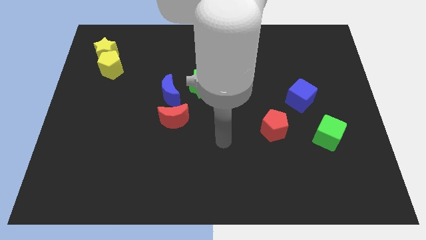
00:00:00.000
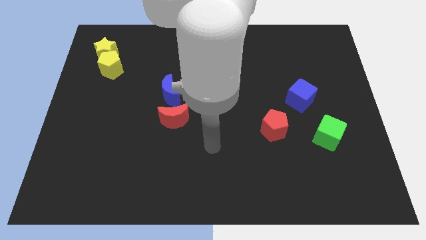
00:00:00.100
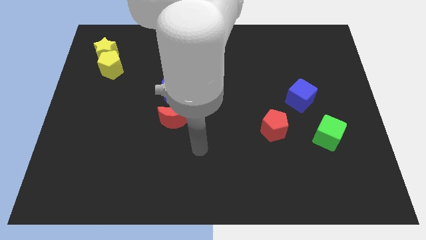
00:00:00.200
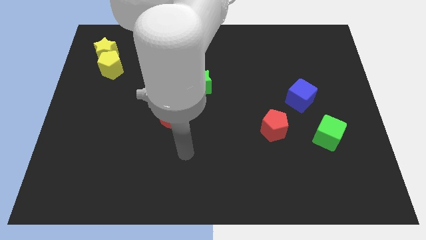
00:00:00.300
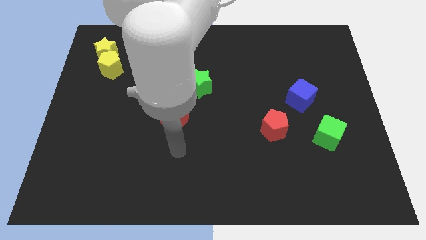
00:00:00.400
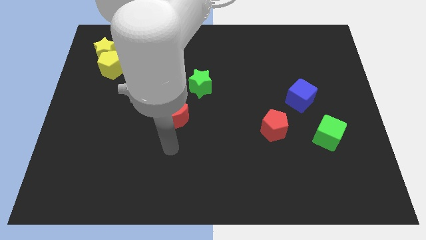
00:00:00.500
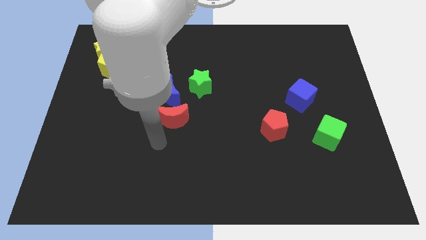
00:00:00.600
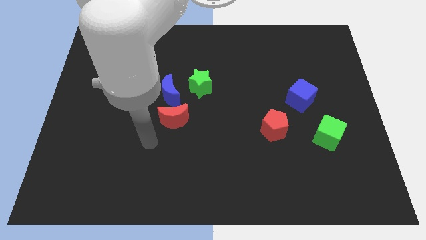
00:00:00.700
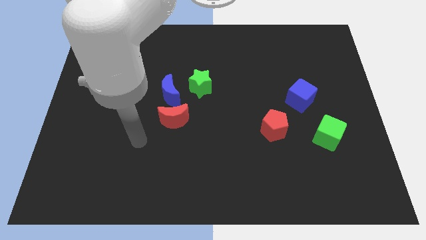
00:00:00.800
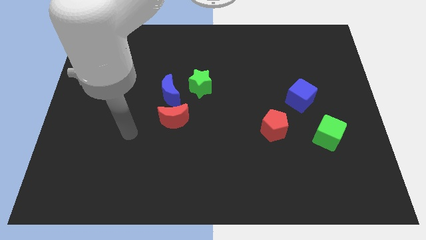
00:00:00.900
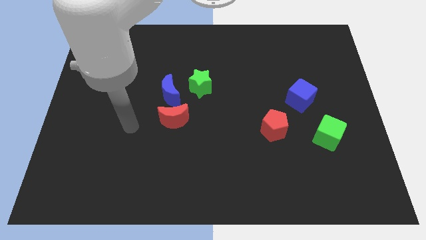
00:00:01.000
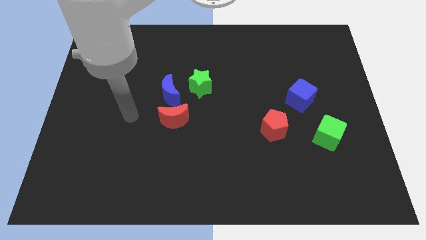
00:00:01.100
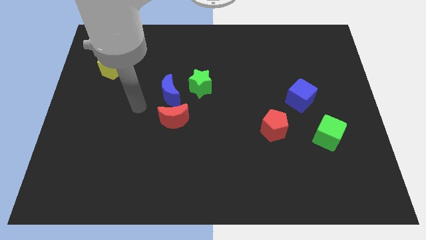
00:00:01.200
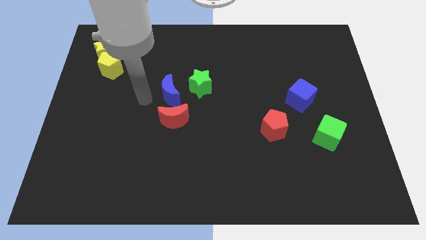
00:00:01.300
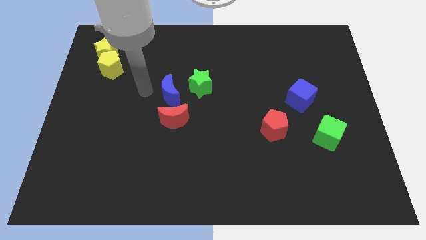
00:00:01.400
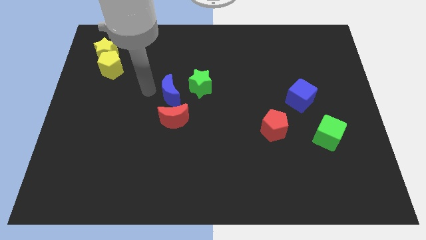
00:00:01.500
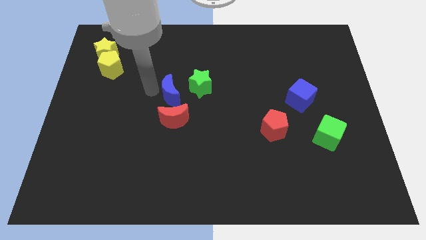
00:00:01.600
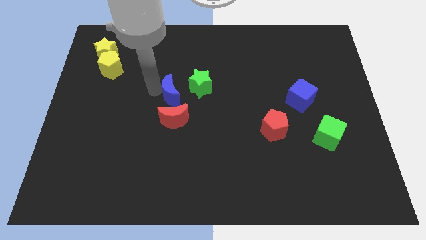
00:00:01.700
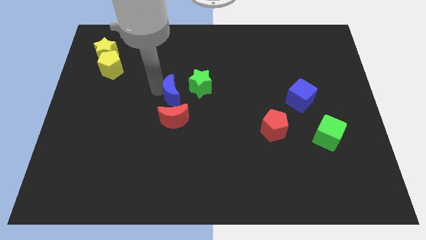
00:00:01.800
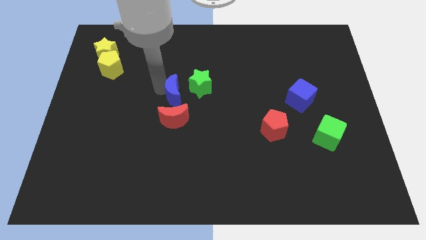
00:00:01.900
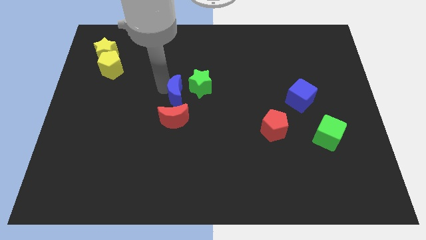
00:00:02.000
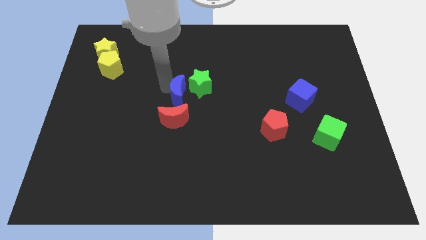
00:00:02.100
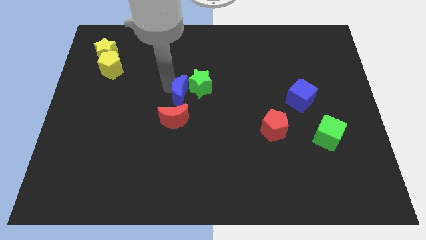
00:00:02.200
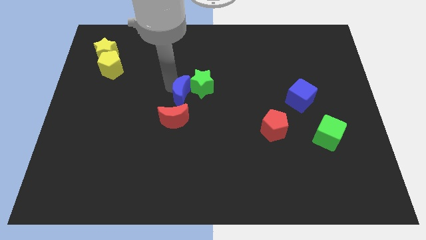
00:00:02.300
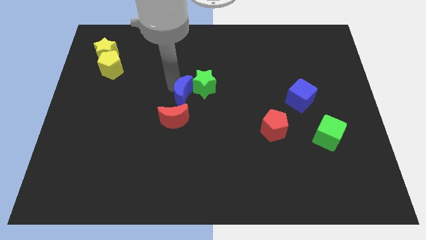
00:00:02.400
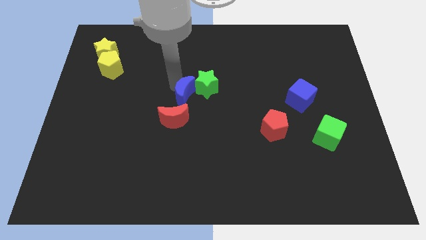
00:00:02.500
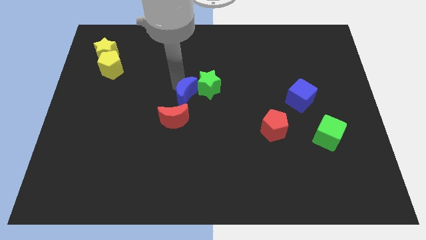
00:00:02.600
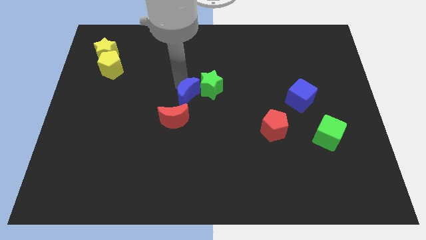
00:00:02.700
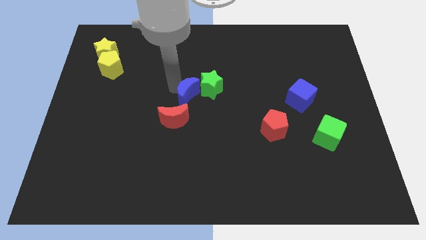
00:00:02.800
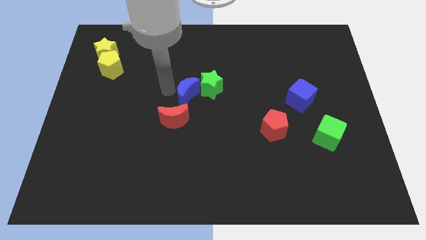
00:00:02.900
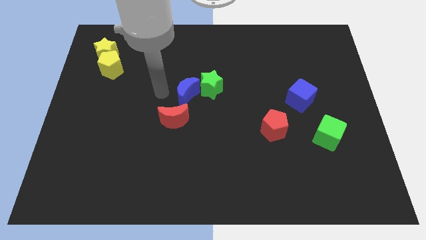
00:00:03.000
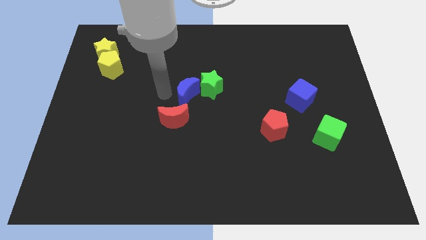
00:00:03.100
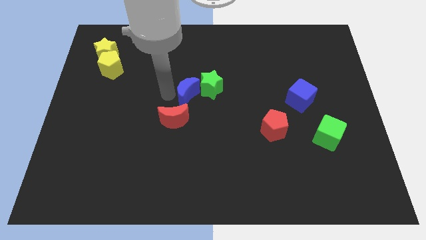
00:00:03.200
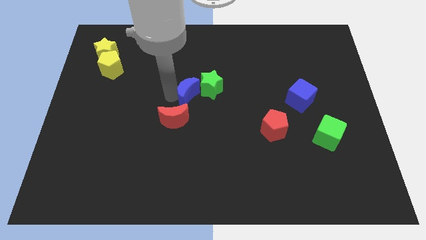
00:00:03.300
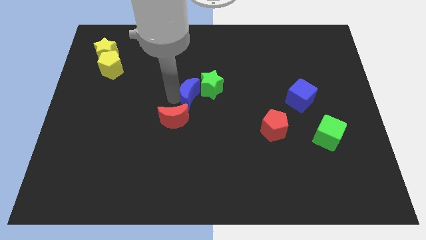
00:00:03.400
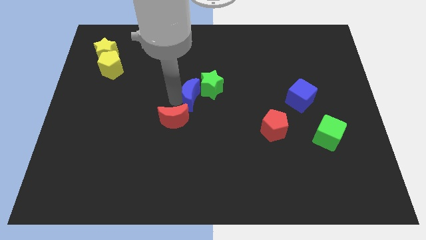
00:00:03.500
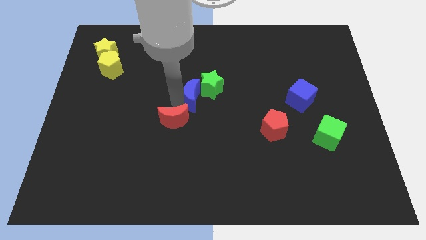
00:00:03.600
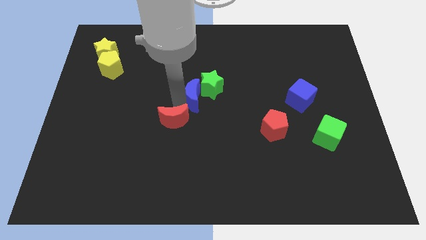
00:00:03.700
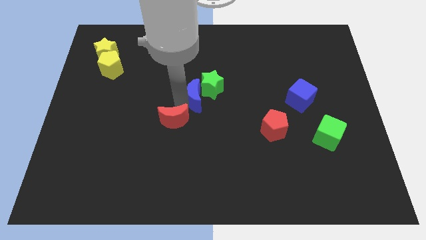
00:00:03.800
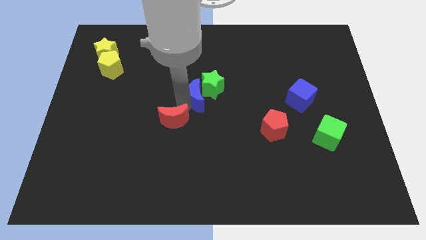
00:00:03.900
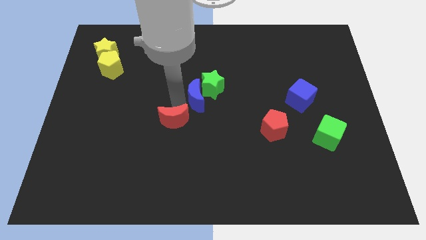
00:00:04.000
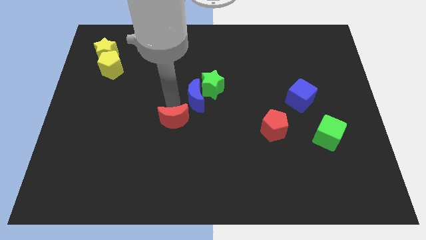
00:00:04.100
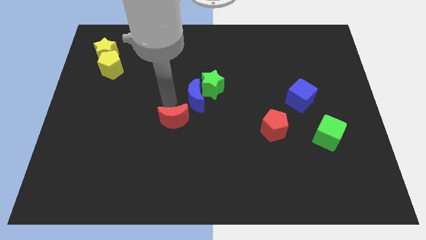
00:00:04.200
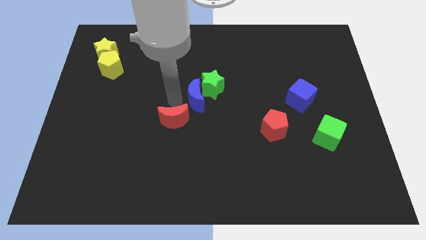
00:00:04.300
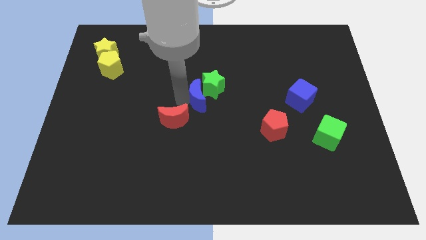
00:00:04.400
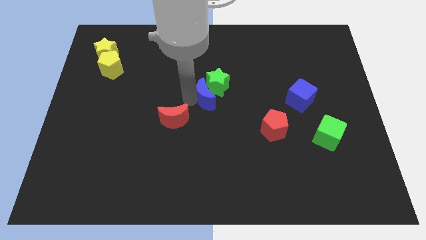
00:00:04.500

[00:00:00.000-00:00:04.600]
push the blue moon a little bit right

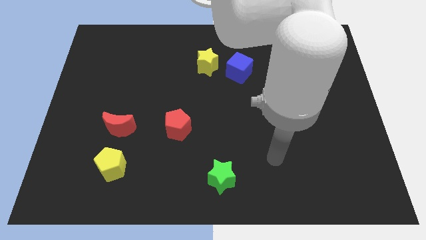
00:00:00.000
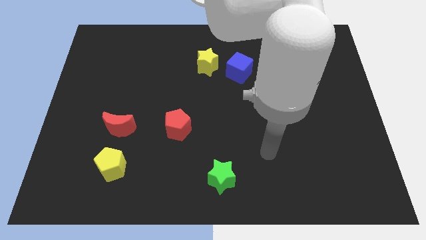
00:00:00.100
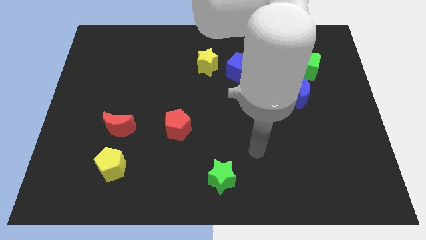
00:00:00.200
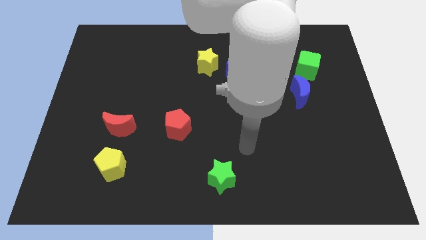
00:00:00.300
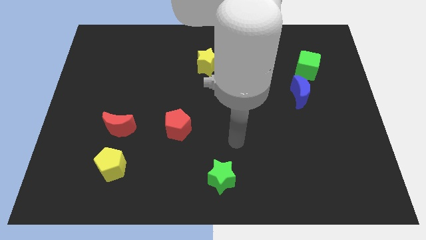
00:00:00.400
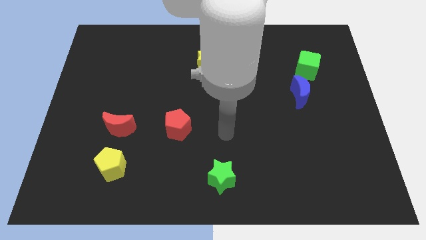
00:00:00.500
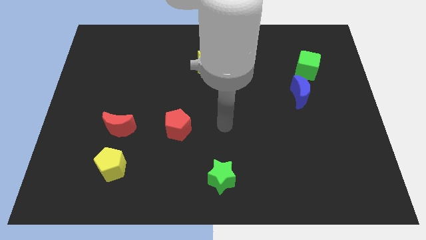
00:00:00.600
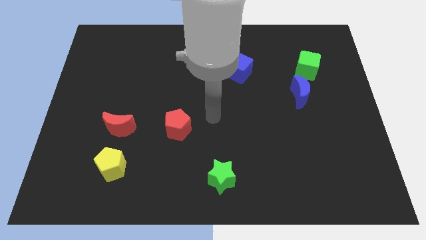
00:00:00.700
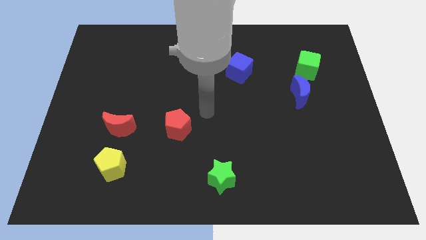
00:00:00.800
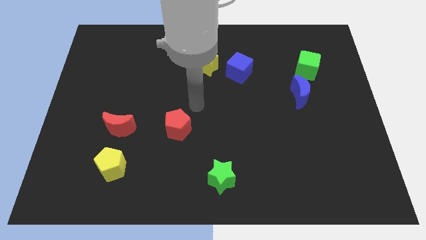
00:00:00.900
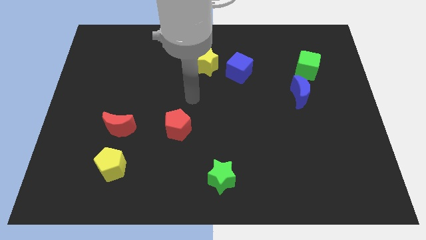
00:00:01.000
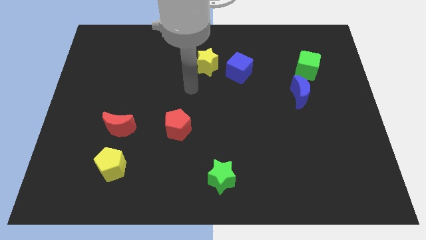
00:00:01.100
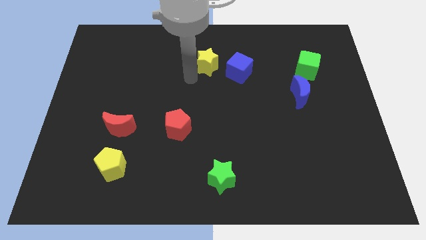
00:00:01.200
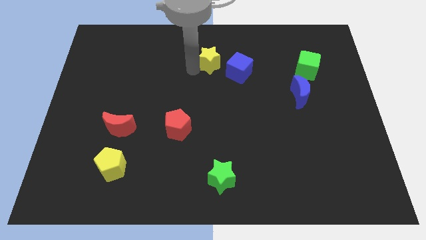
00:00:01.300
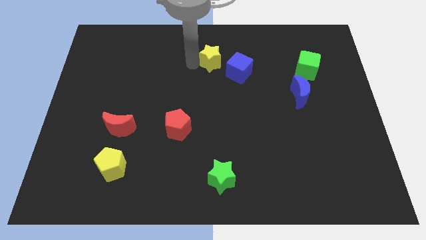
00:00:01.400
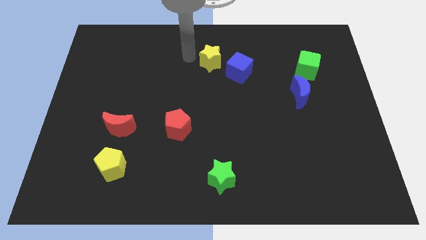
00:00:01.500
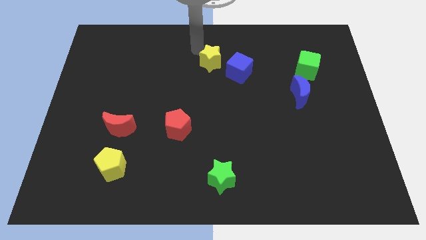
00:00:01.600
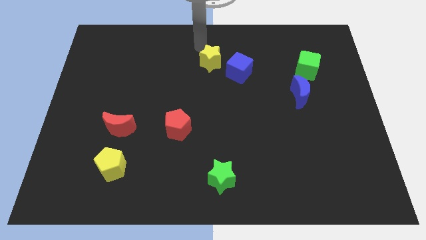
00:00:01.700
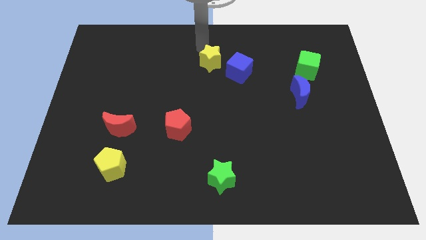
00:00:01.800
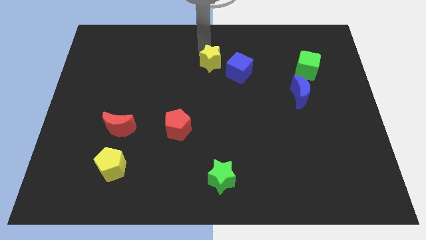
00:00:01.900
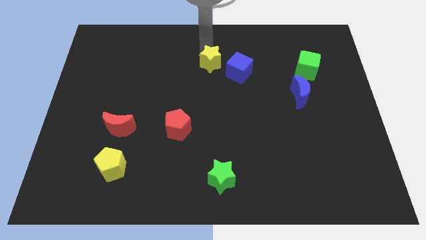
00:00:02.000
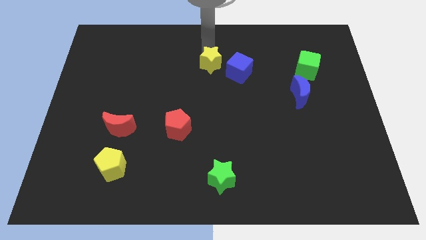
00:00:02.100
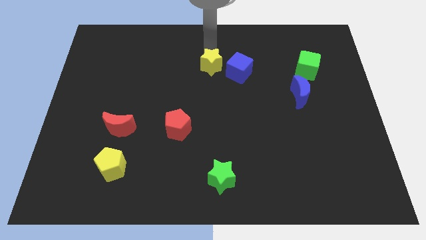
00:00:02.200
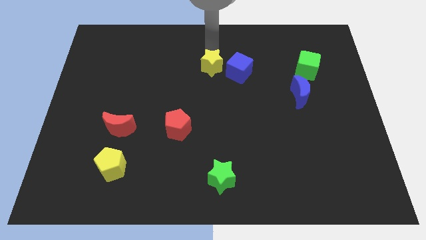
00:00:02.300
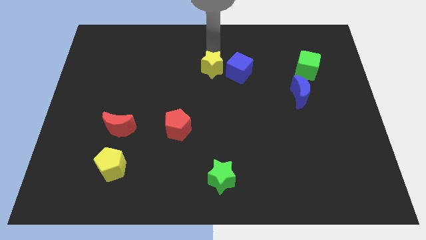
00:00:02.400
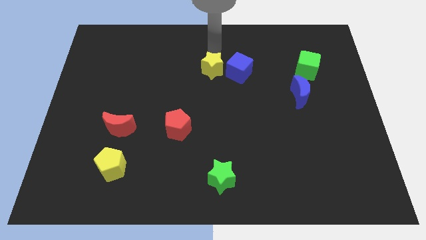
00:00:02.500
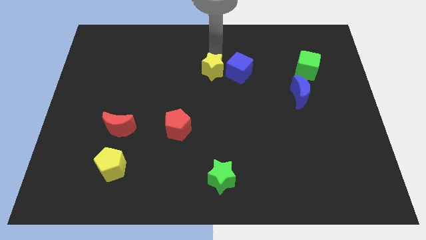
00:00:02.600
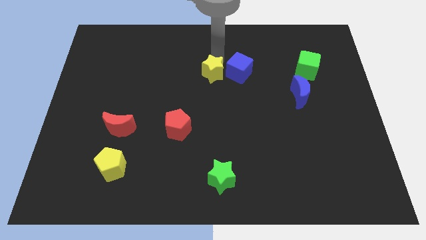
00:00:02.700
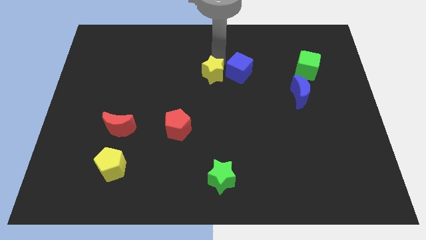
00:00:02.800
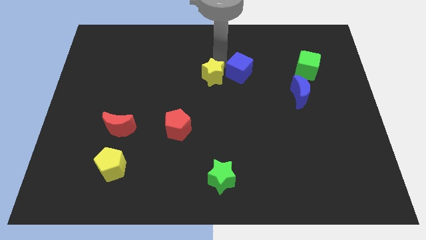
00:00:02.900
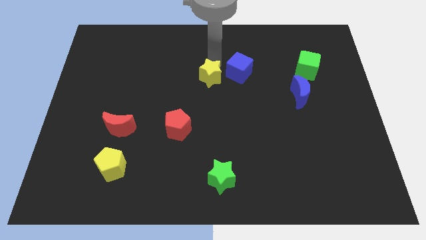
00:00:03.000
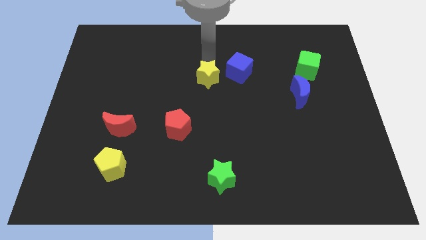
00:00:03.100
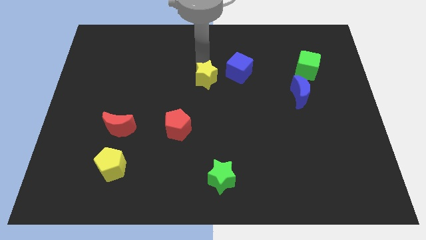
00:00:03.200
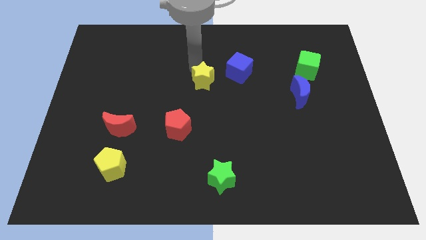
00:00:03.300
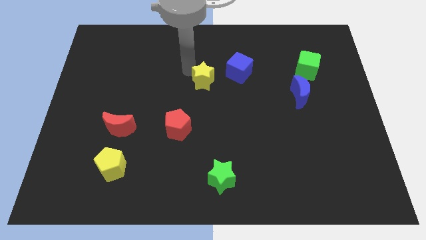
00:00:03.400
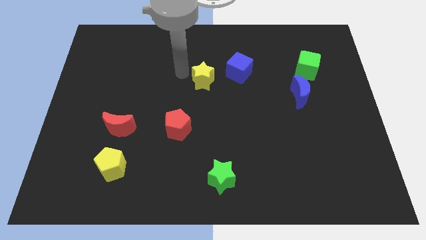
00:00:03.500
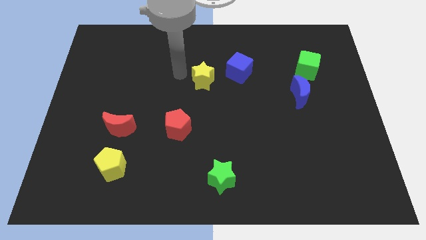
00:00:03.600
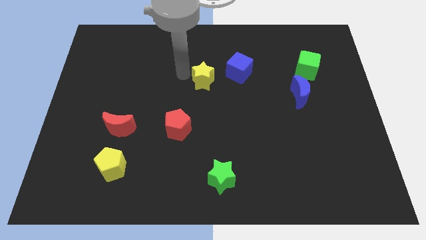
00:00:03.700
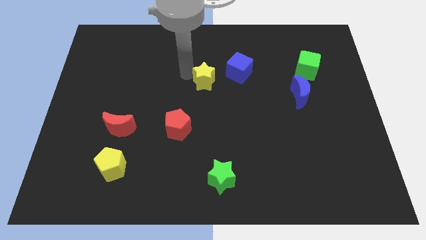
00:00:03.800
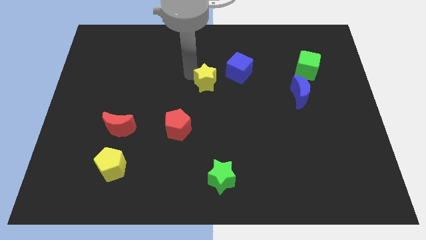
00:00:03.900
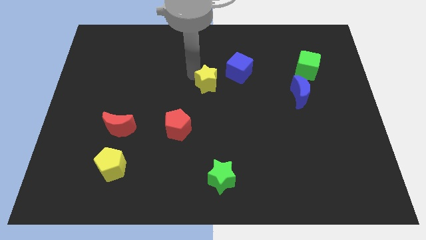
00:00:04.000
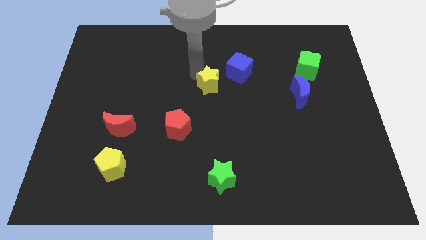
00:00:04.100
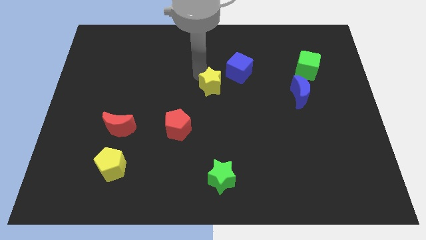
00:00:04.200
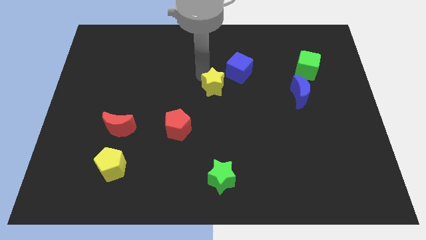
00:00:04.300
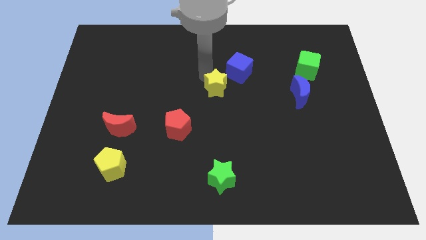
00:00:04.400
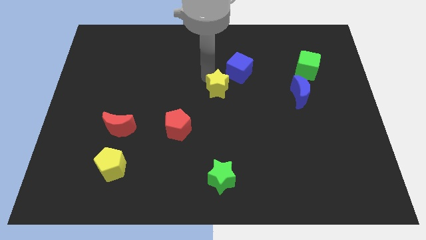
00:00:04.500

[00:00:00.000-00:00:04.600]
slide the yellow star down and then to the right a bit
